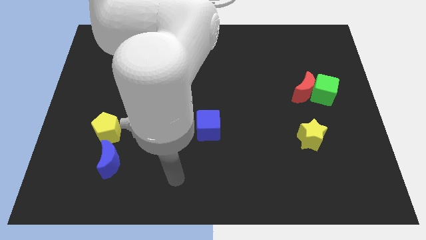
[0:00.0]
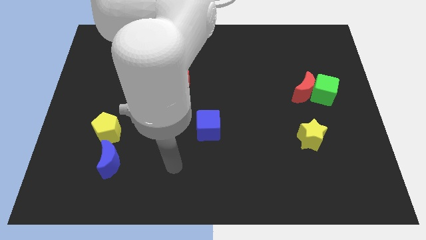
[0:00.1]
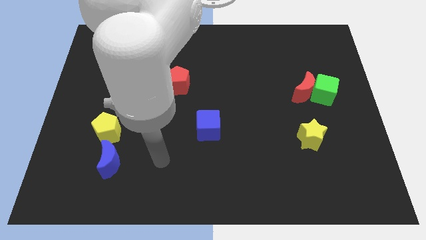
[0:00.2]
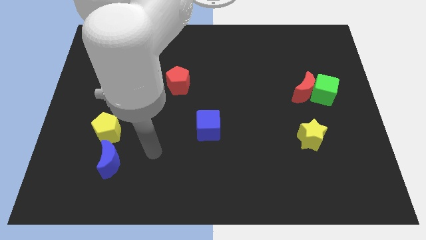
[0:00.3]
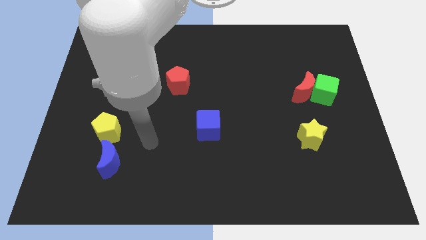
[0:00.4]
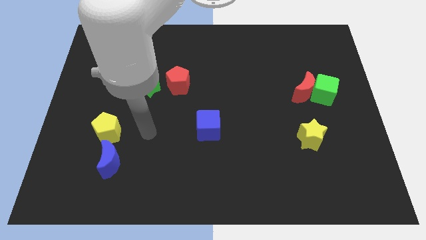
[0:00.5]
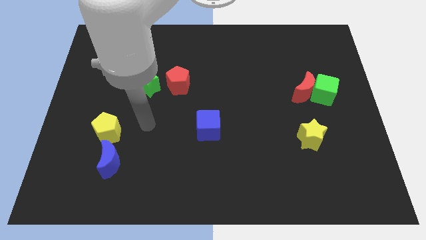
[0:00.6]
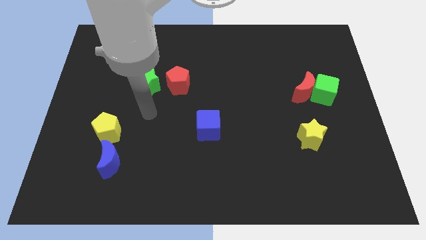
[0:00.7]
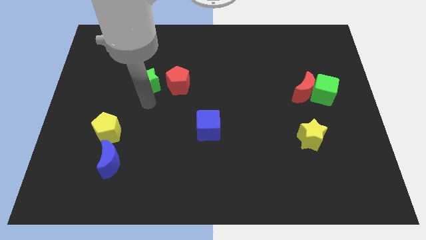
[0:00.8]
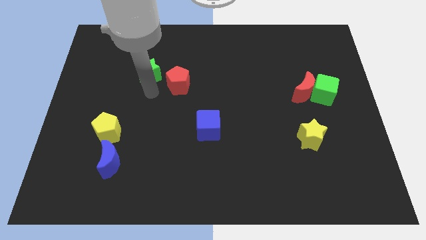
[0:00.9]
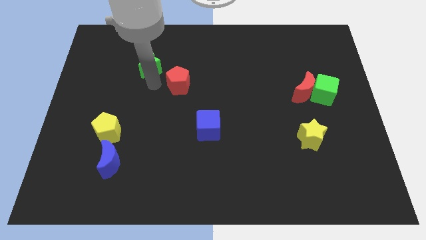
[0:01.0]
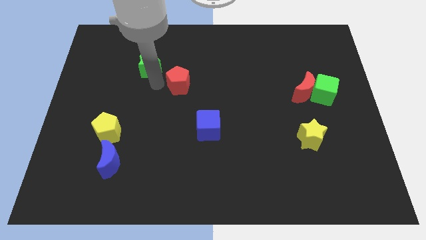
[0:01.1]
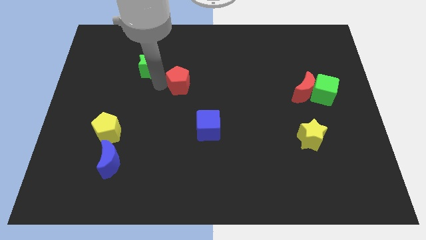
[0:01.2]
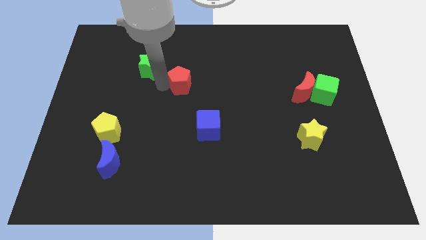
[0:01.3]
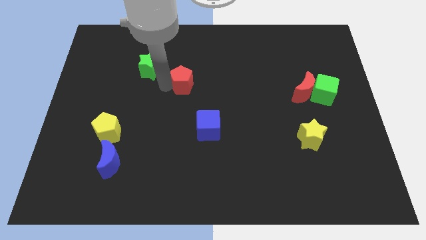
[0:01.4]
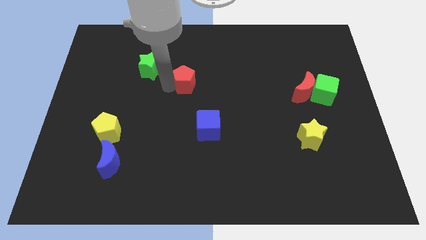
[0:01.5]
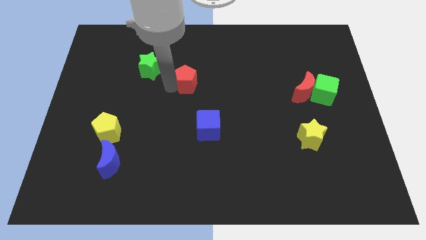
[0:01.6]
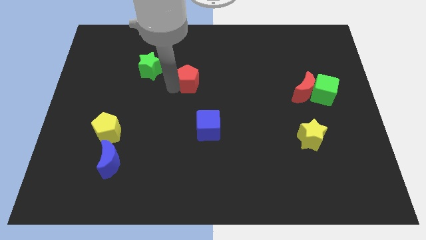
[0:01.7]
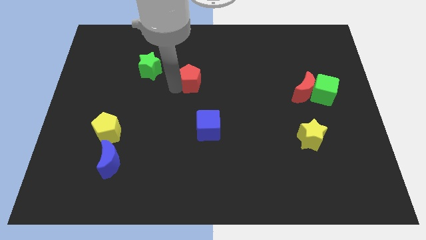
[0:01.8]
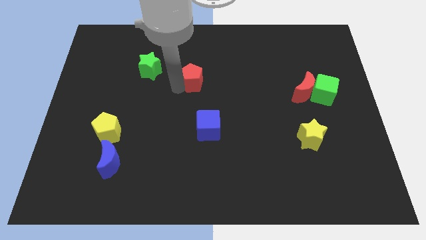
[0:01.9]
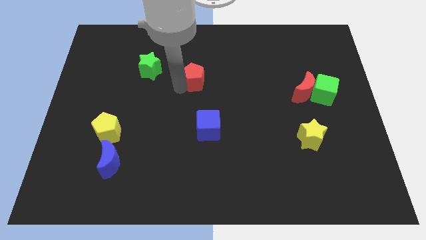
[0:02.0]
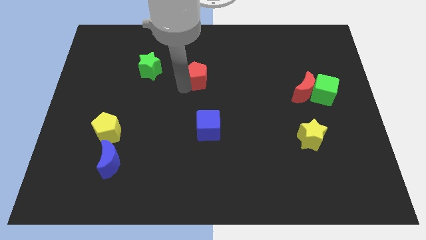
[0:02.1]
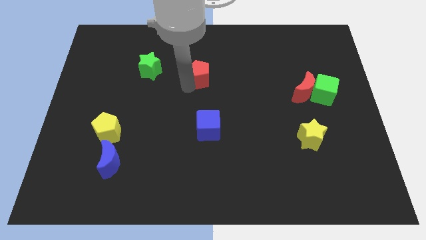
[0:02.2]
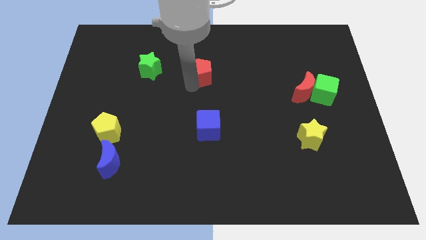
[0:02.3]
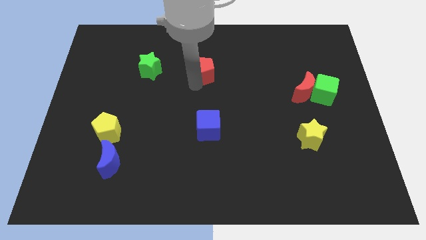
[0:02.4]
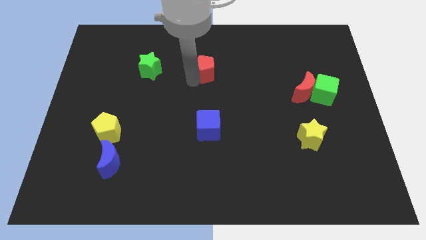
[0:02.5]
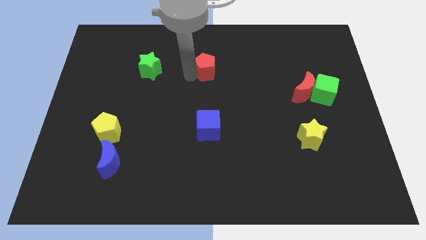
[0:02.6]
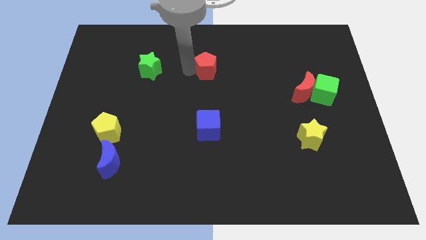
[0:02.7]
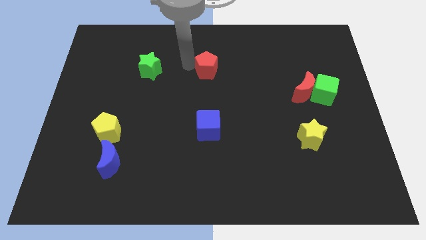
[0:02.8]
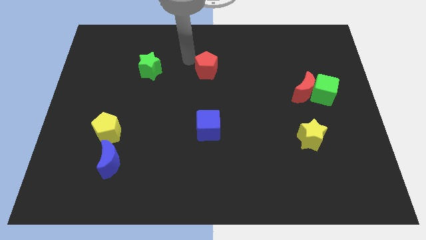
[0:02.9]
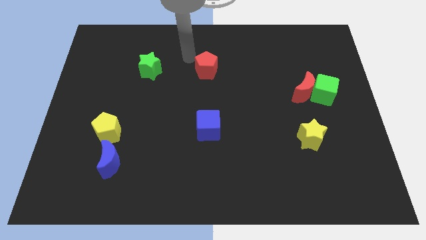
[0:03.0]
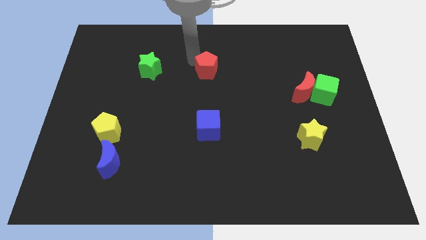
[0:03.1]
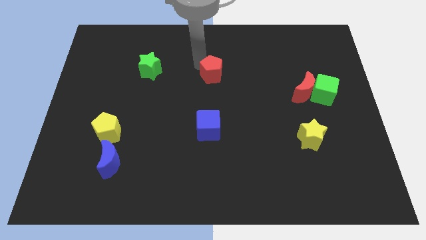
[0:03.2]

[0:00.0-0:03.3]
push the red pentagon to the right a little bit

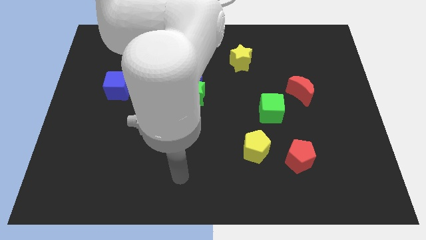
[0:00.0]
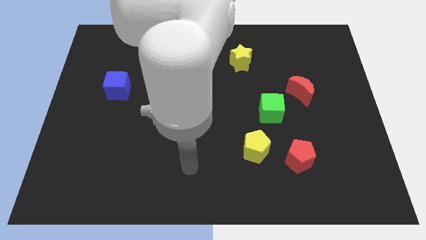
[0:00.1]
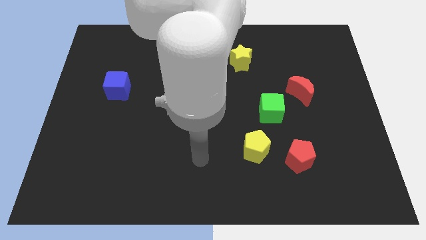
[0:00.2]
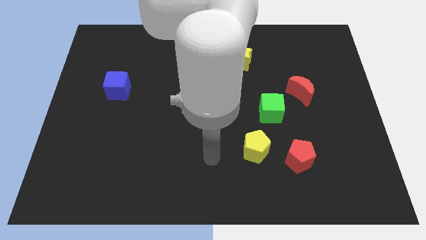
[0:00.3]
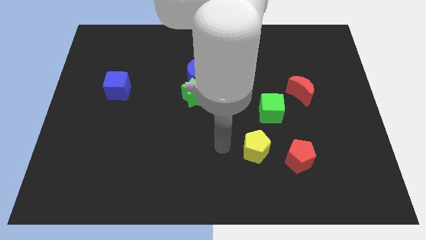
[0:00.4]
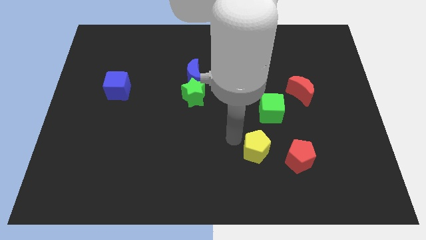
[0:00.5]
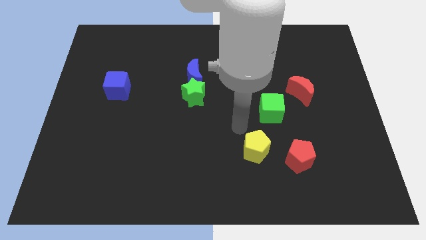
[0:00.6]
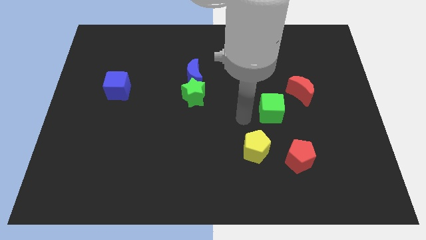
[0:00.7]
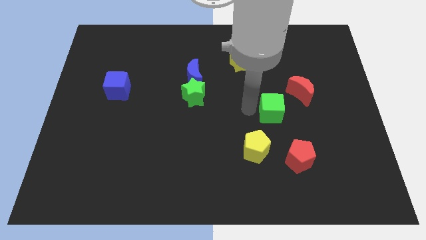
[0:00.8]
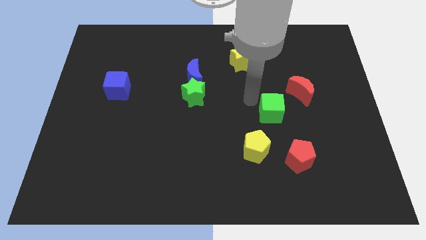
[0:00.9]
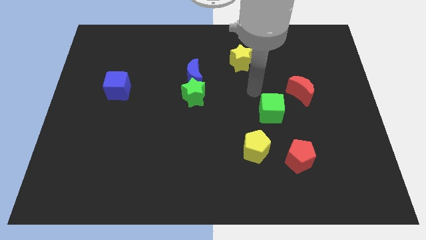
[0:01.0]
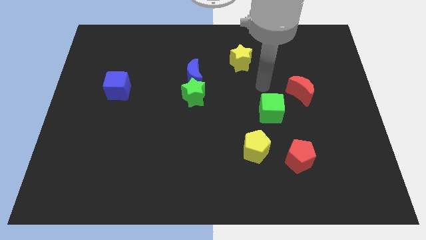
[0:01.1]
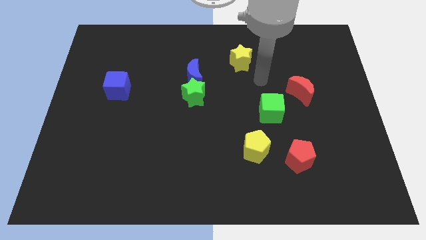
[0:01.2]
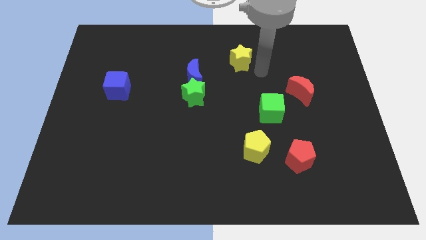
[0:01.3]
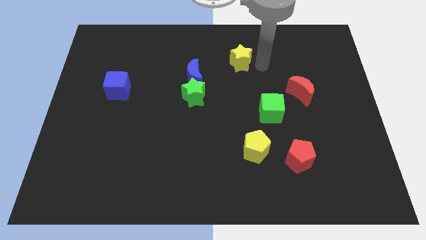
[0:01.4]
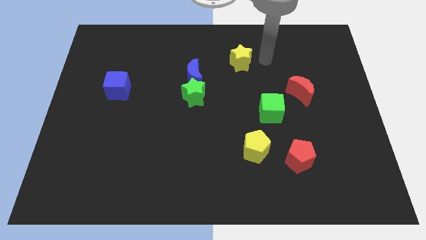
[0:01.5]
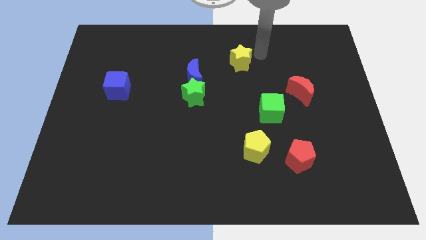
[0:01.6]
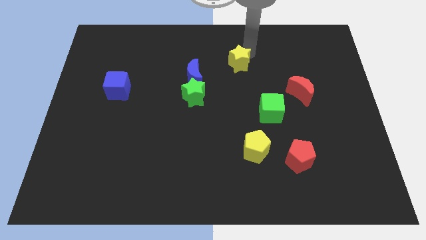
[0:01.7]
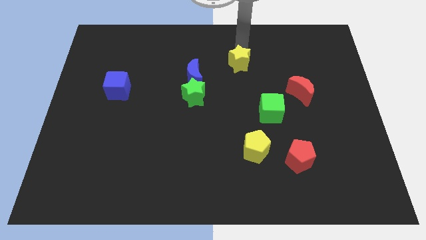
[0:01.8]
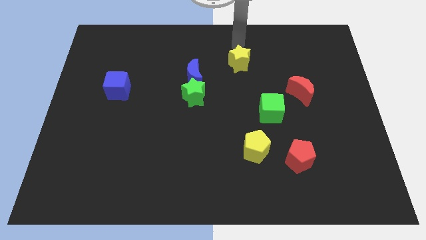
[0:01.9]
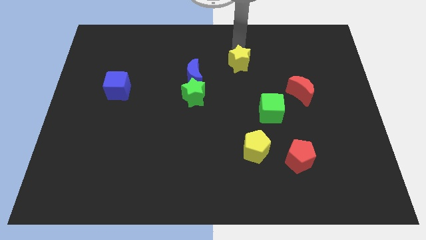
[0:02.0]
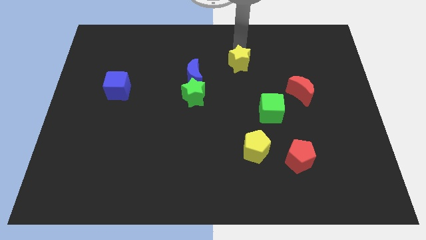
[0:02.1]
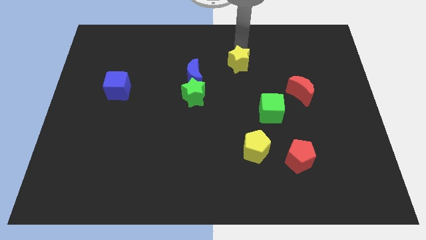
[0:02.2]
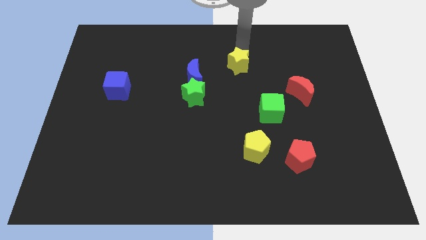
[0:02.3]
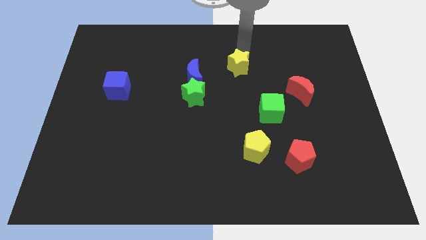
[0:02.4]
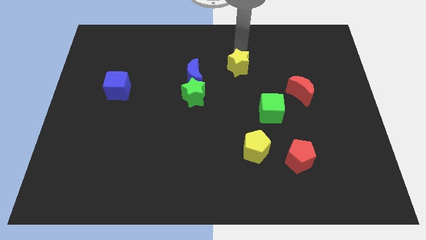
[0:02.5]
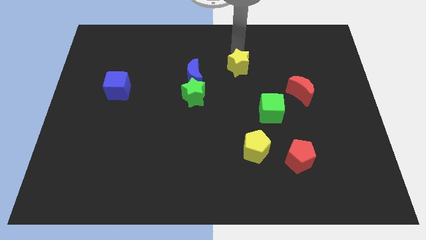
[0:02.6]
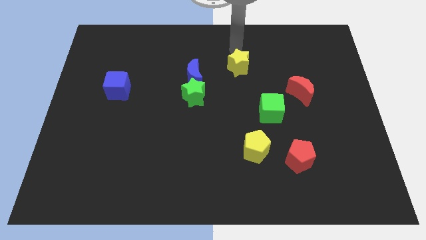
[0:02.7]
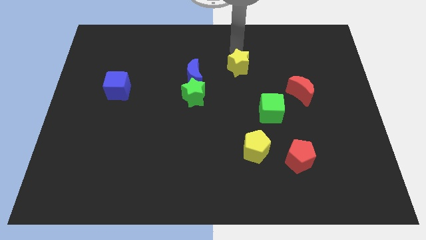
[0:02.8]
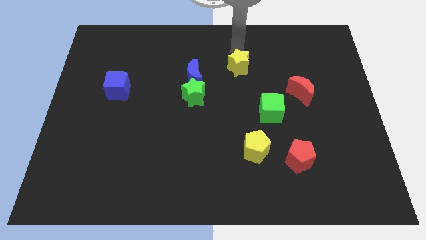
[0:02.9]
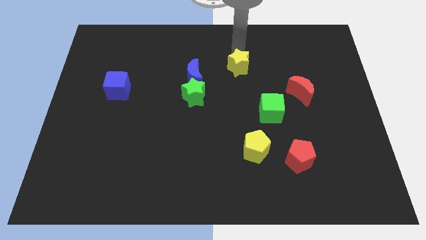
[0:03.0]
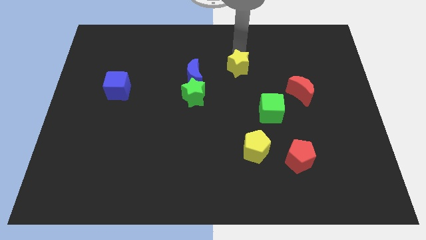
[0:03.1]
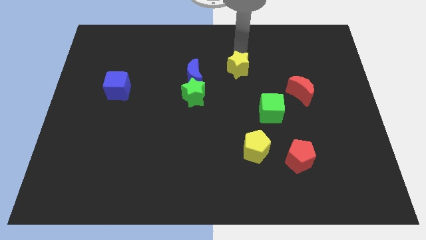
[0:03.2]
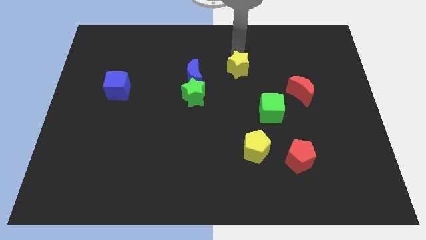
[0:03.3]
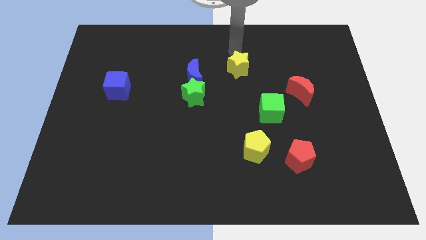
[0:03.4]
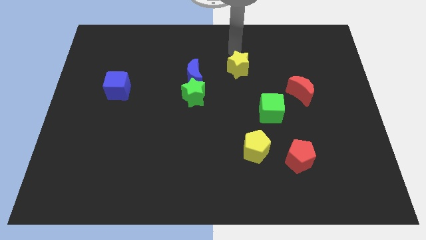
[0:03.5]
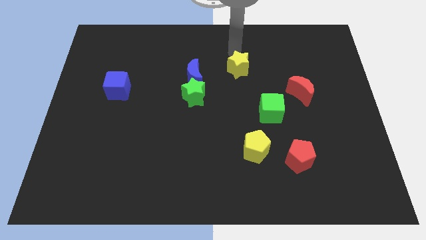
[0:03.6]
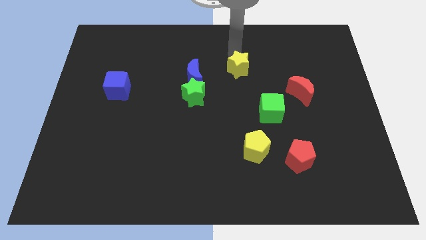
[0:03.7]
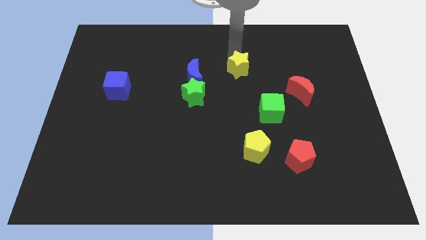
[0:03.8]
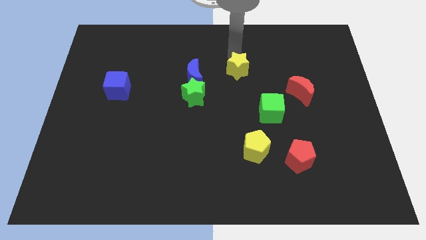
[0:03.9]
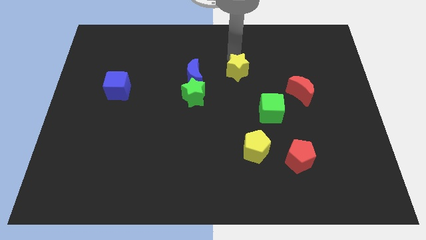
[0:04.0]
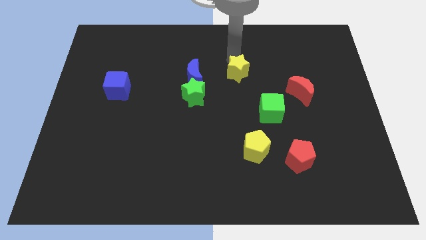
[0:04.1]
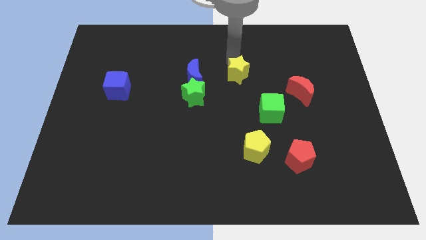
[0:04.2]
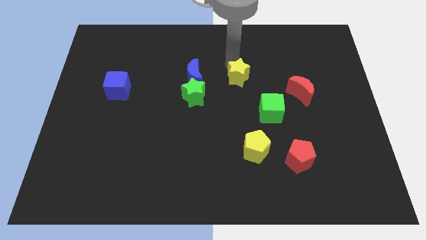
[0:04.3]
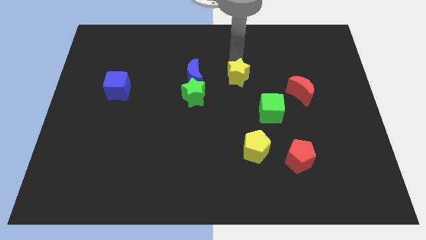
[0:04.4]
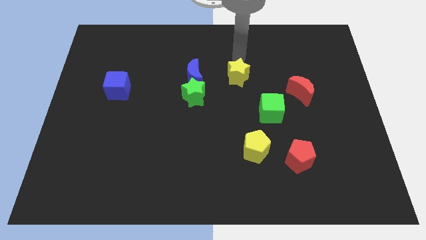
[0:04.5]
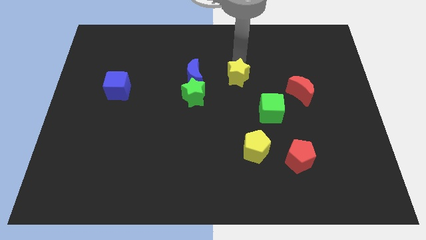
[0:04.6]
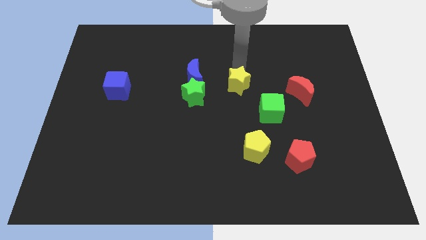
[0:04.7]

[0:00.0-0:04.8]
slightly move the yellow star downwards
